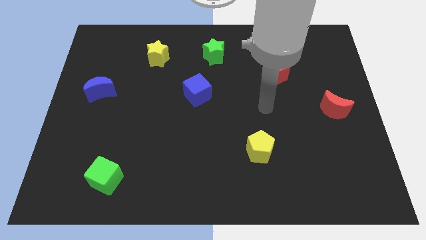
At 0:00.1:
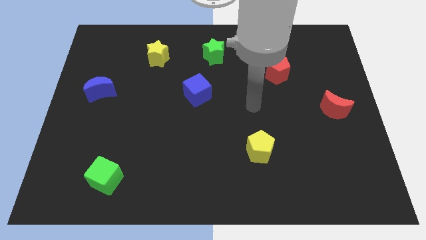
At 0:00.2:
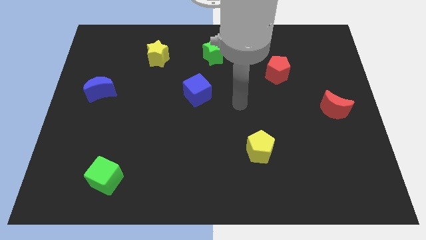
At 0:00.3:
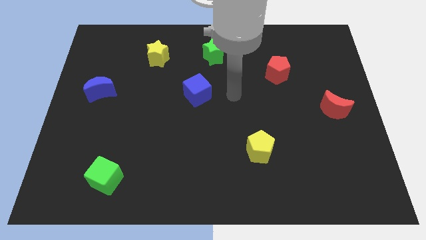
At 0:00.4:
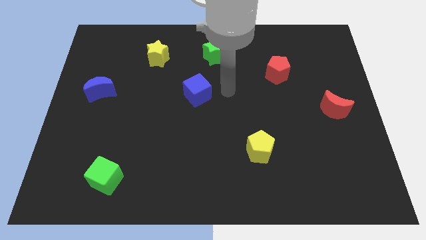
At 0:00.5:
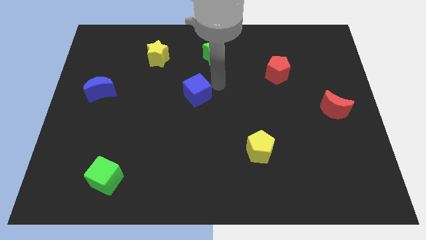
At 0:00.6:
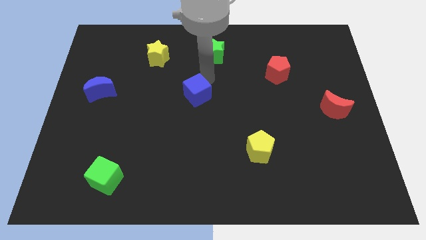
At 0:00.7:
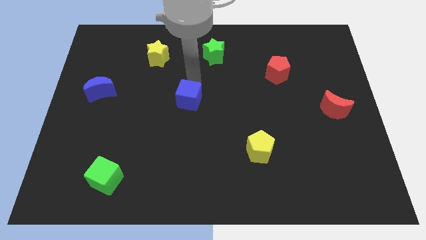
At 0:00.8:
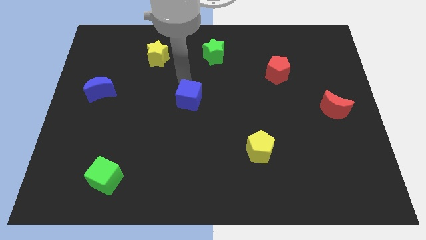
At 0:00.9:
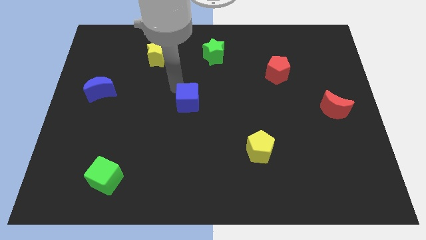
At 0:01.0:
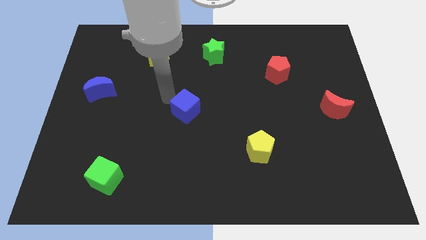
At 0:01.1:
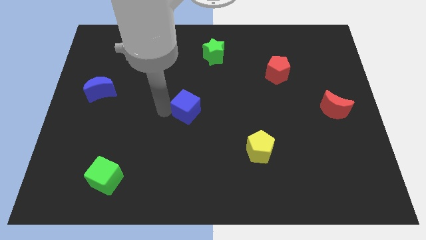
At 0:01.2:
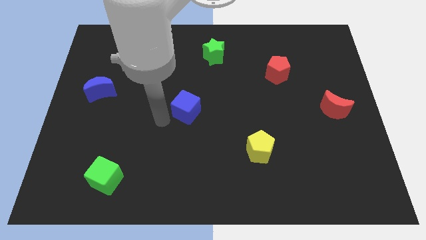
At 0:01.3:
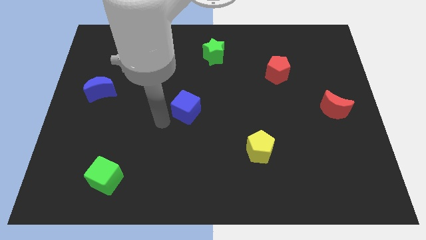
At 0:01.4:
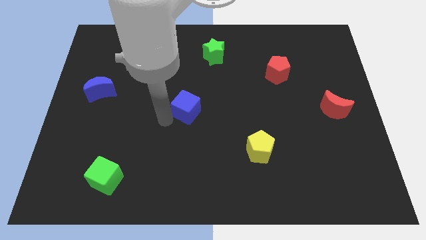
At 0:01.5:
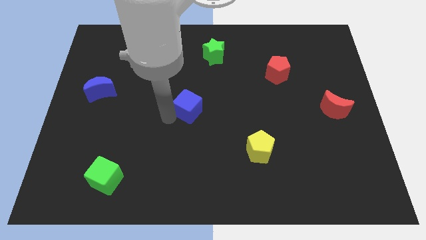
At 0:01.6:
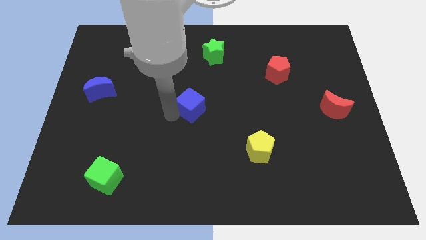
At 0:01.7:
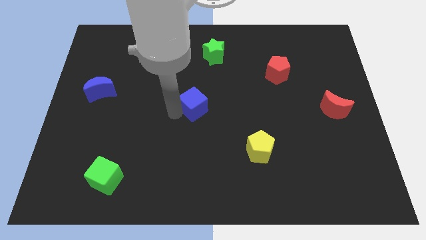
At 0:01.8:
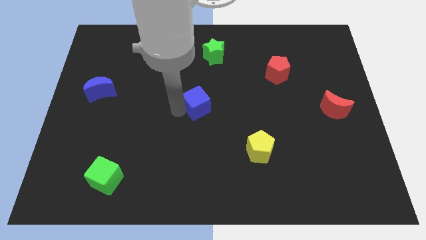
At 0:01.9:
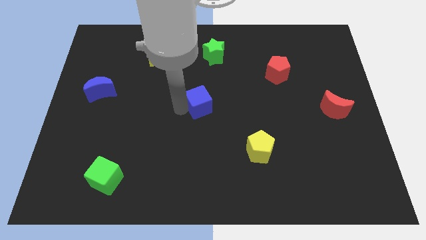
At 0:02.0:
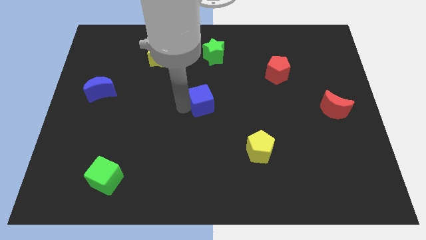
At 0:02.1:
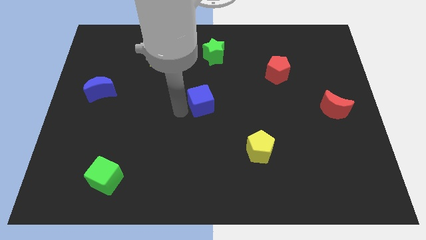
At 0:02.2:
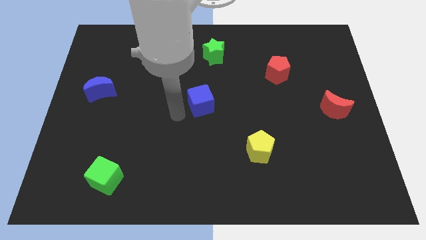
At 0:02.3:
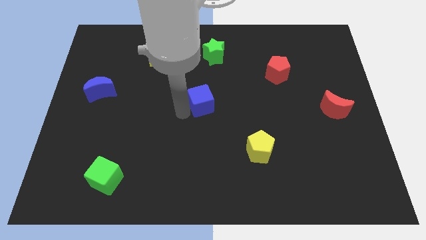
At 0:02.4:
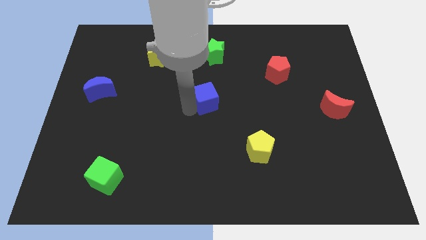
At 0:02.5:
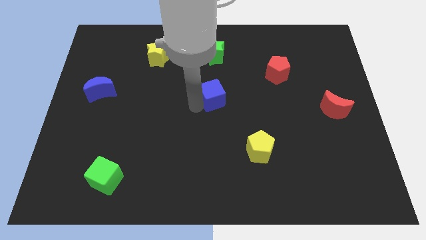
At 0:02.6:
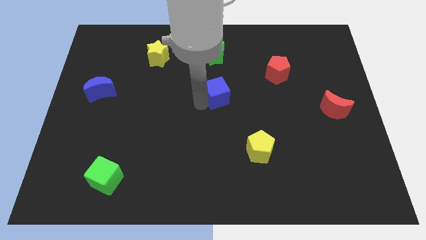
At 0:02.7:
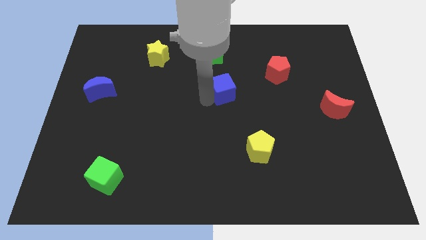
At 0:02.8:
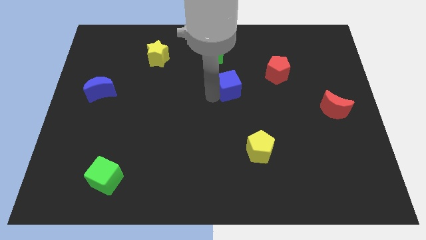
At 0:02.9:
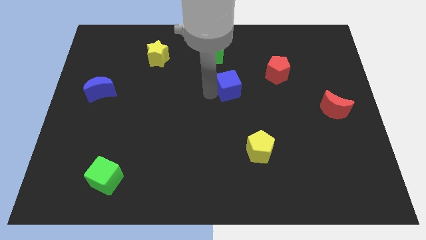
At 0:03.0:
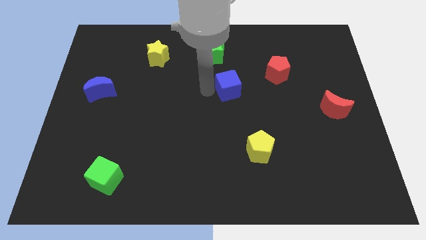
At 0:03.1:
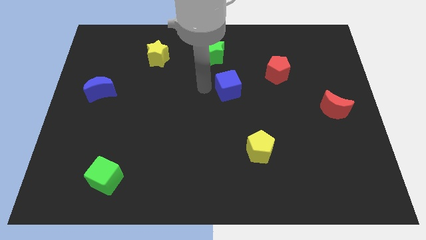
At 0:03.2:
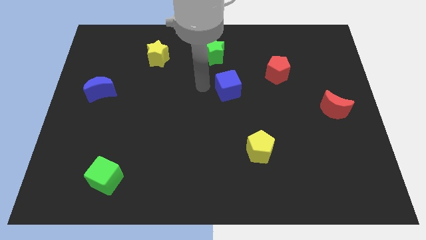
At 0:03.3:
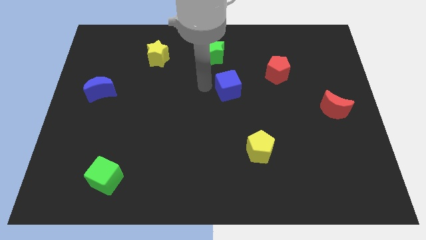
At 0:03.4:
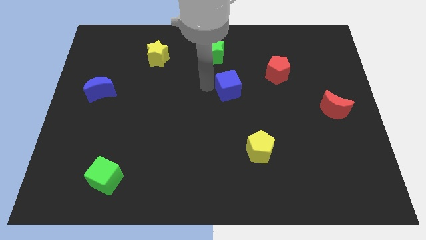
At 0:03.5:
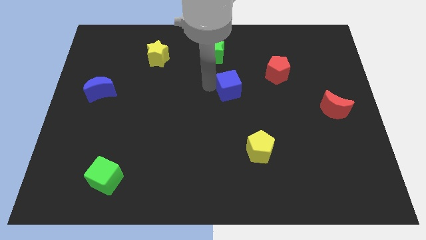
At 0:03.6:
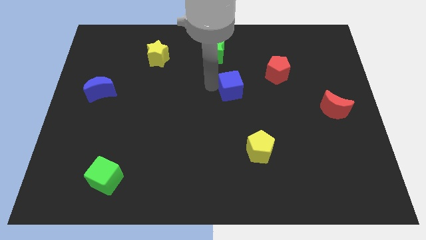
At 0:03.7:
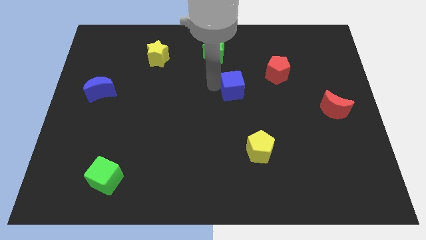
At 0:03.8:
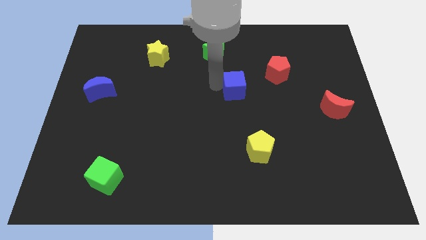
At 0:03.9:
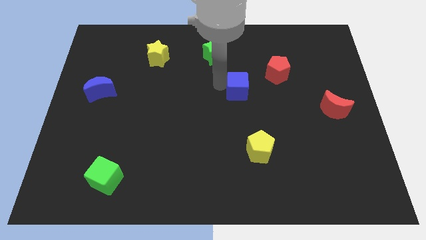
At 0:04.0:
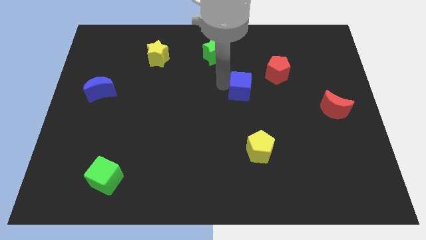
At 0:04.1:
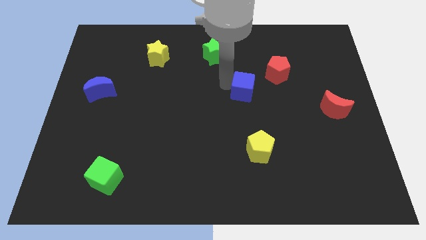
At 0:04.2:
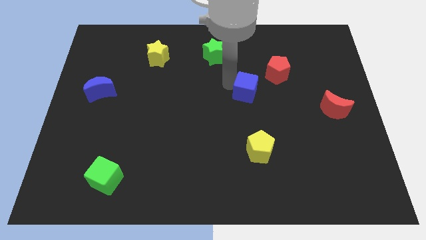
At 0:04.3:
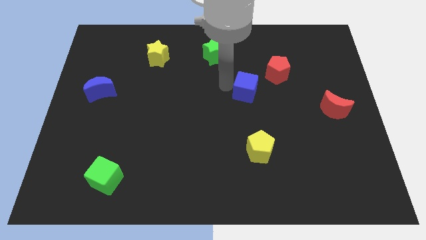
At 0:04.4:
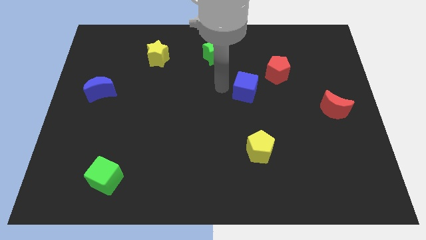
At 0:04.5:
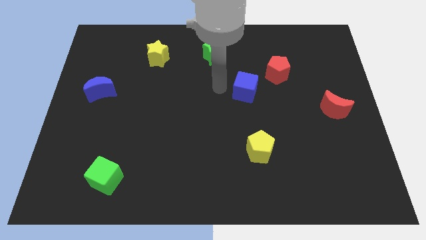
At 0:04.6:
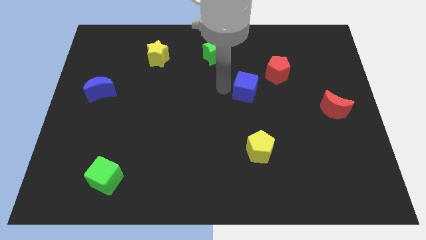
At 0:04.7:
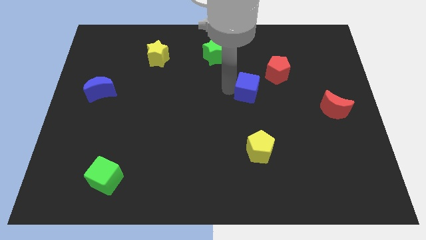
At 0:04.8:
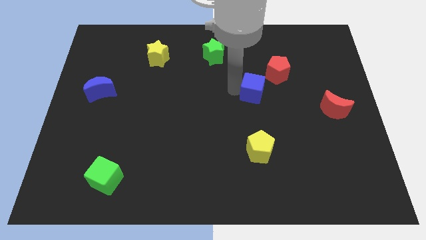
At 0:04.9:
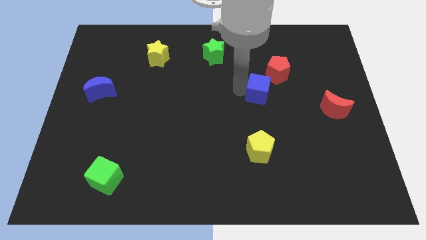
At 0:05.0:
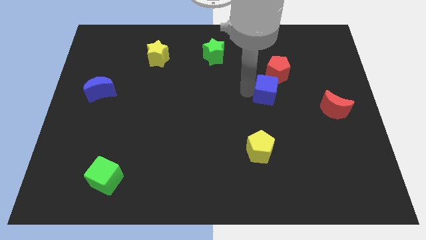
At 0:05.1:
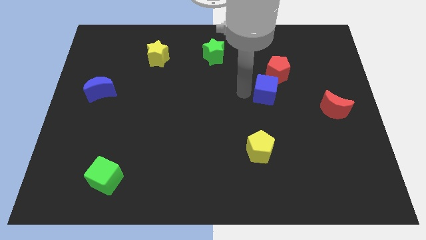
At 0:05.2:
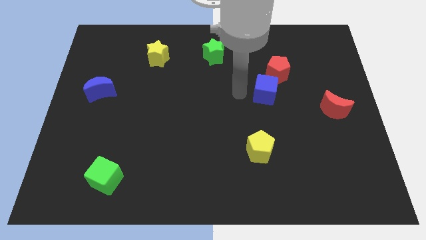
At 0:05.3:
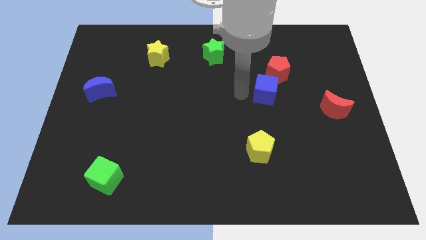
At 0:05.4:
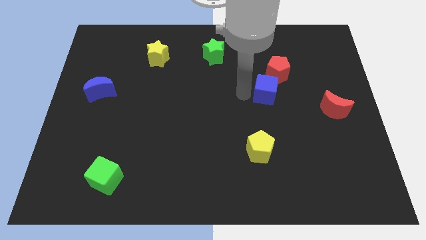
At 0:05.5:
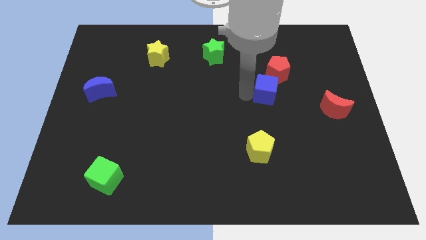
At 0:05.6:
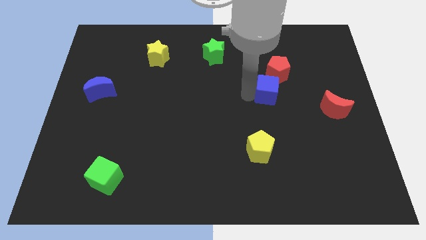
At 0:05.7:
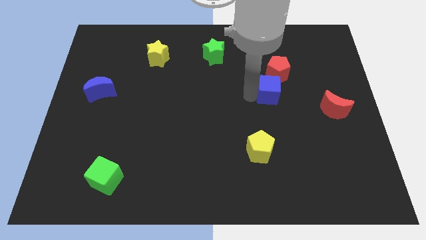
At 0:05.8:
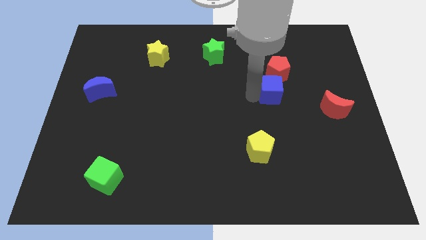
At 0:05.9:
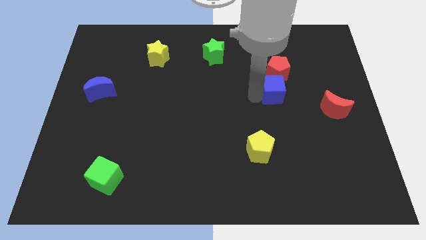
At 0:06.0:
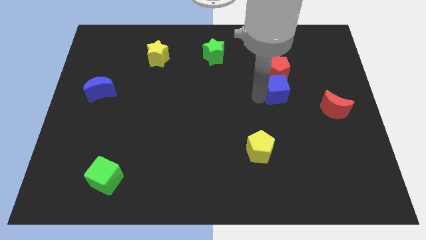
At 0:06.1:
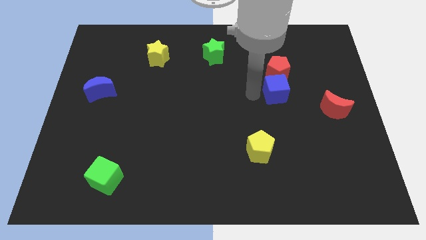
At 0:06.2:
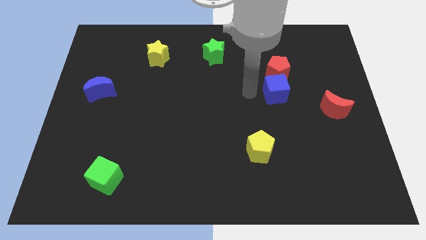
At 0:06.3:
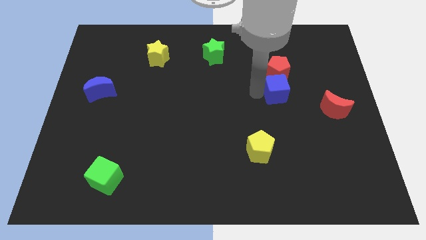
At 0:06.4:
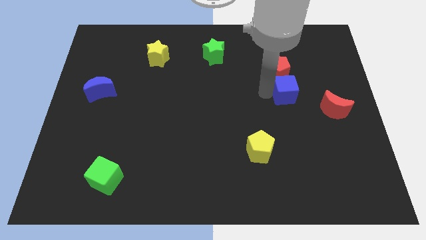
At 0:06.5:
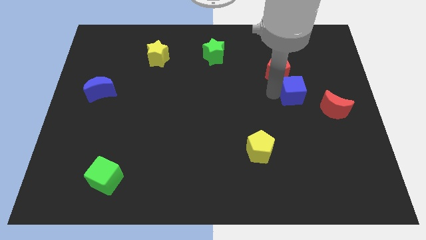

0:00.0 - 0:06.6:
put the blue cube diagonally up and to the left of the red moon

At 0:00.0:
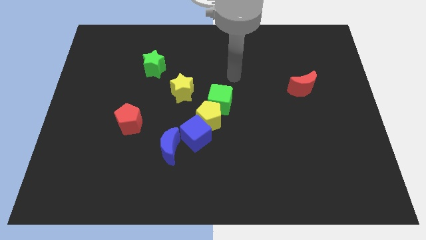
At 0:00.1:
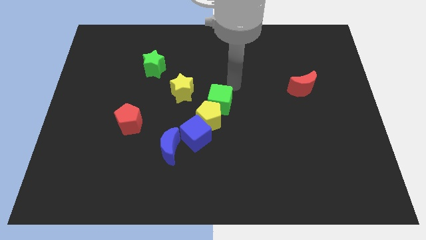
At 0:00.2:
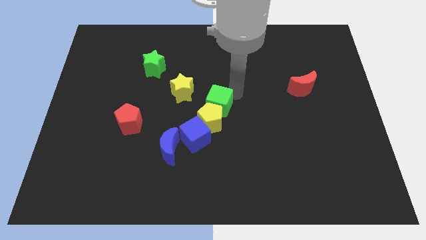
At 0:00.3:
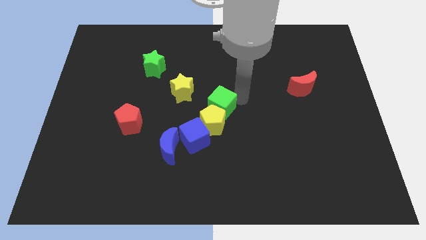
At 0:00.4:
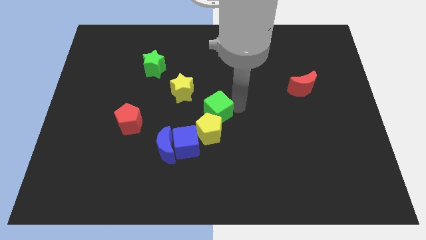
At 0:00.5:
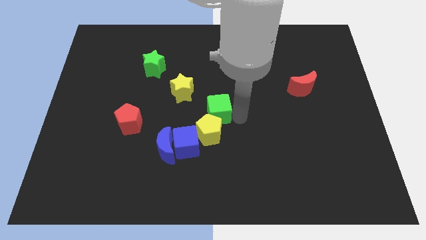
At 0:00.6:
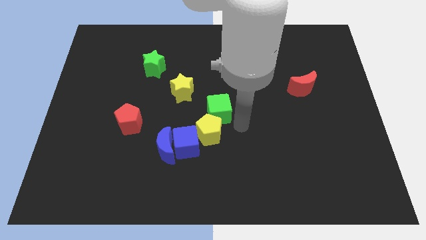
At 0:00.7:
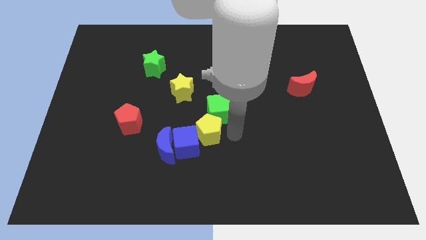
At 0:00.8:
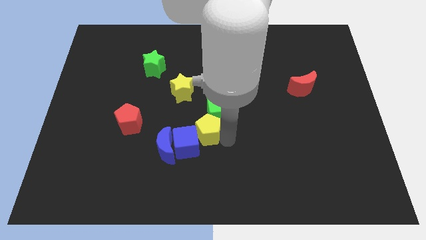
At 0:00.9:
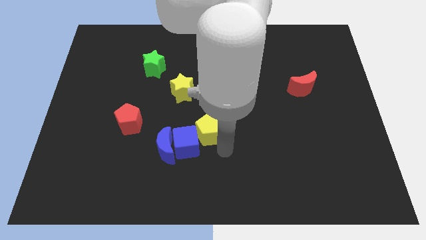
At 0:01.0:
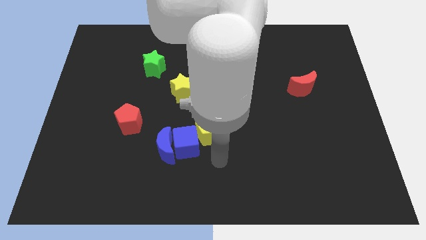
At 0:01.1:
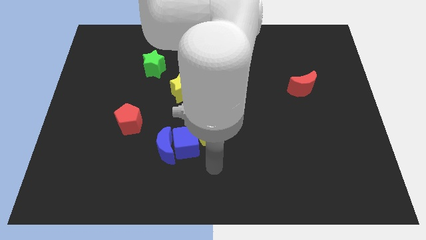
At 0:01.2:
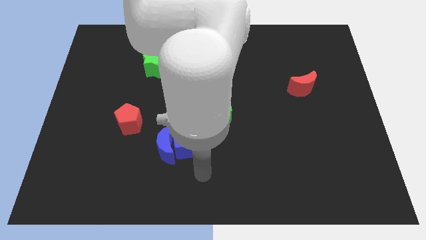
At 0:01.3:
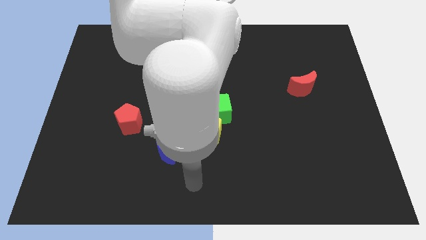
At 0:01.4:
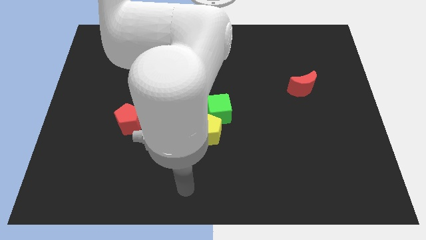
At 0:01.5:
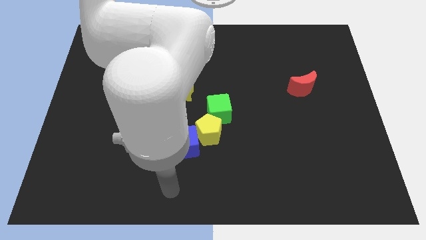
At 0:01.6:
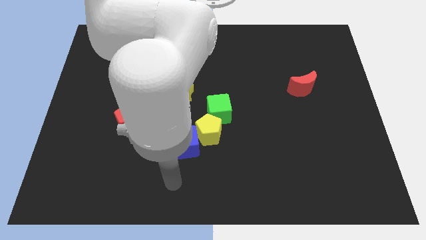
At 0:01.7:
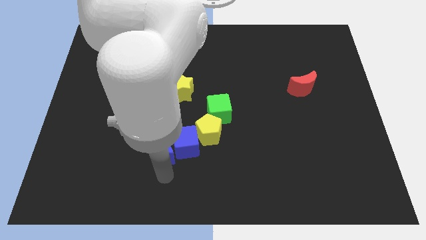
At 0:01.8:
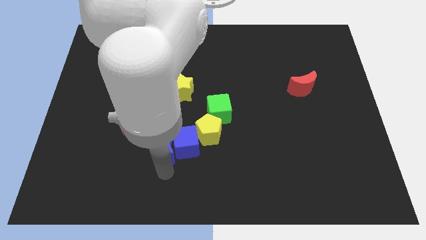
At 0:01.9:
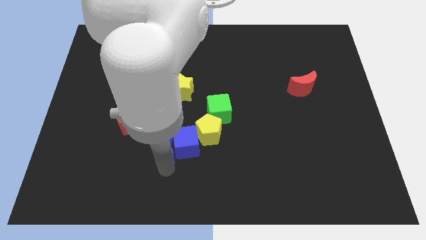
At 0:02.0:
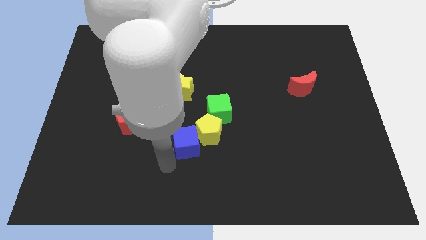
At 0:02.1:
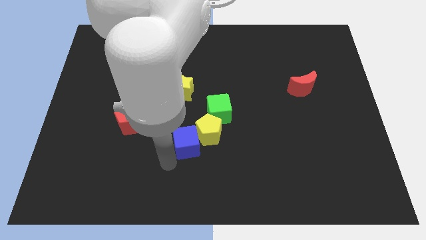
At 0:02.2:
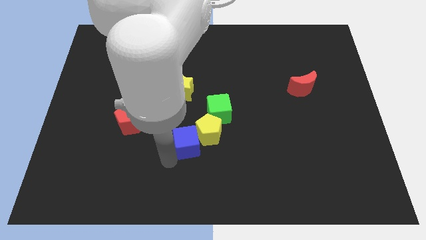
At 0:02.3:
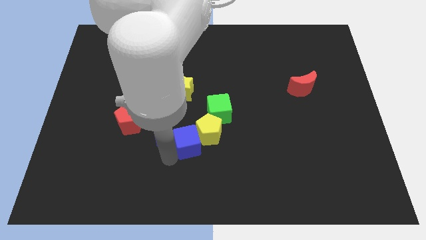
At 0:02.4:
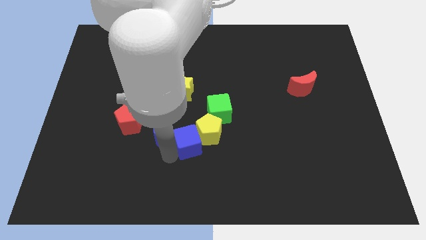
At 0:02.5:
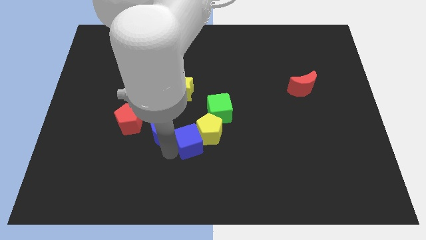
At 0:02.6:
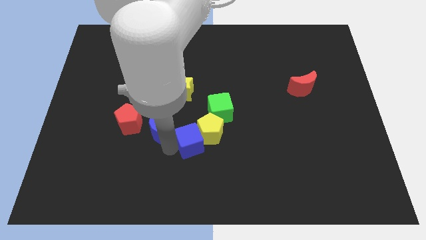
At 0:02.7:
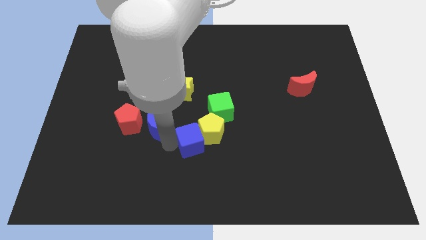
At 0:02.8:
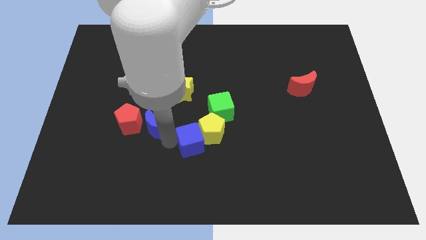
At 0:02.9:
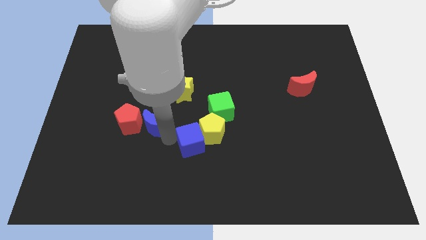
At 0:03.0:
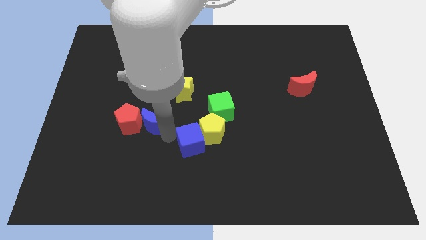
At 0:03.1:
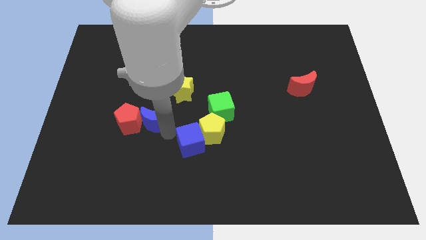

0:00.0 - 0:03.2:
push the blue moon left of the green cube
